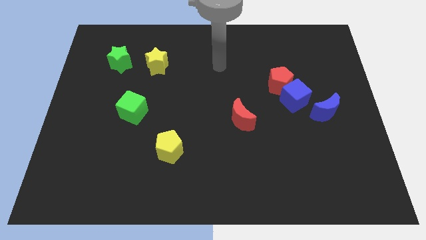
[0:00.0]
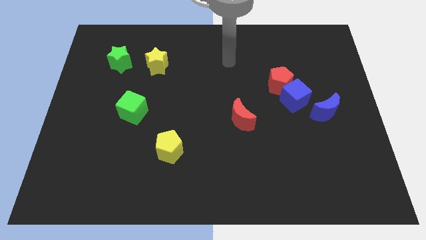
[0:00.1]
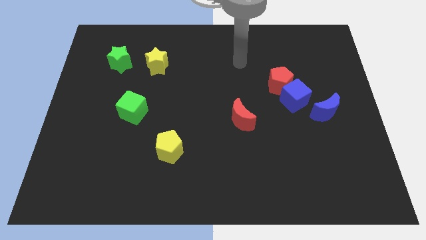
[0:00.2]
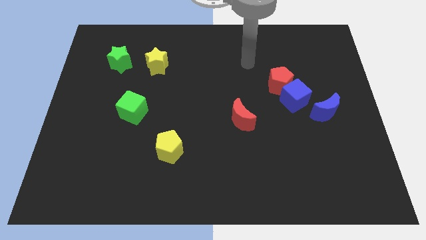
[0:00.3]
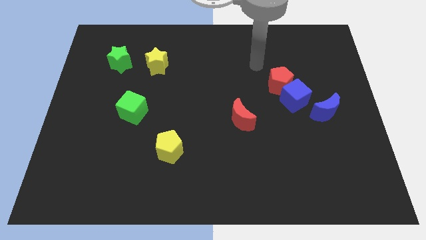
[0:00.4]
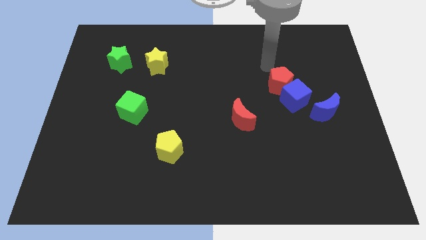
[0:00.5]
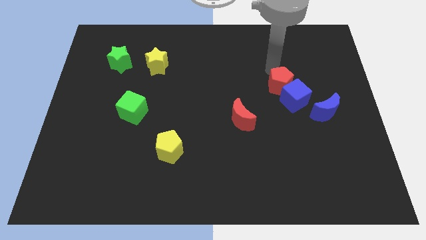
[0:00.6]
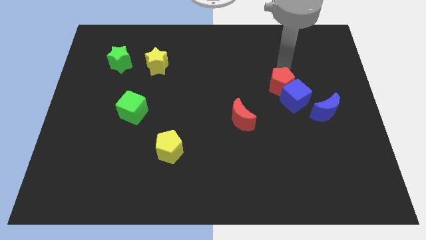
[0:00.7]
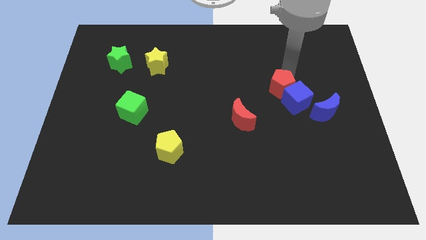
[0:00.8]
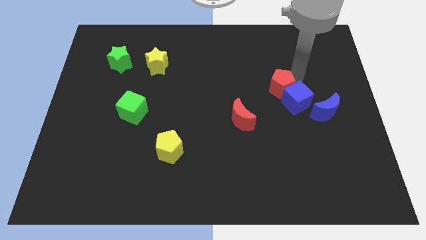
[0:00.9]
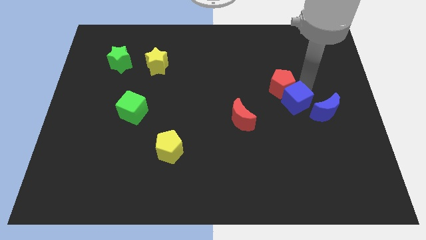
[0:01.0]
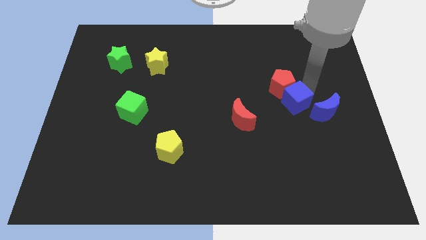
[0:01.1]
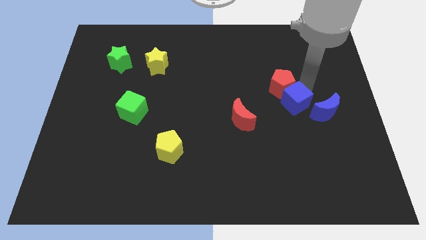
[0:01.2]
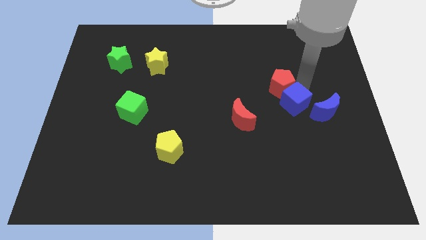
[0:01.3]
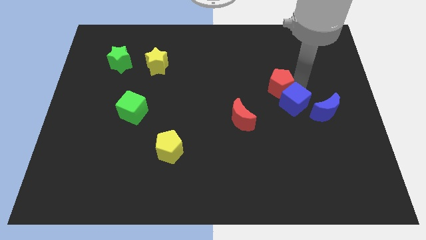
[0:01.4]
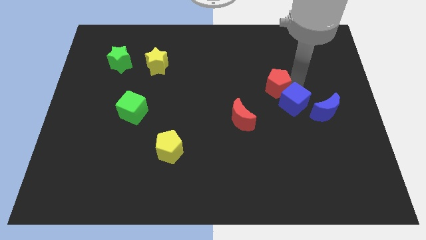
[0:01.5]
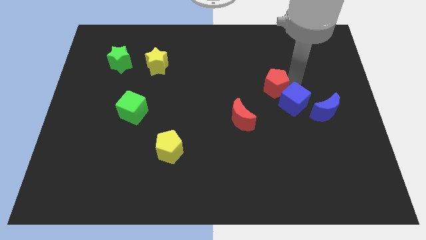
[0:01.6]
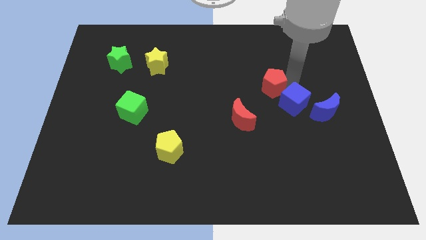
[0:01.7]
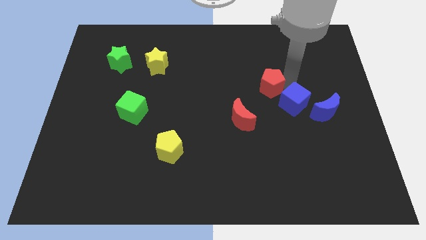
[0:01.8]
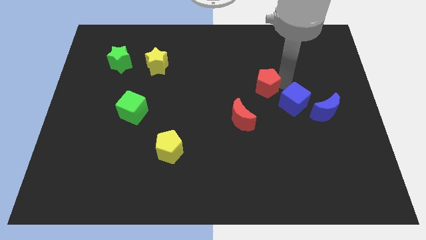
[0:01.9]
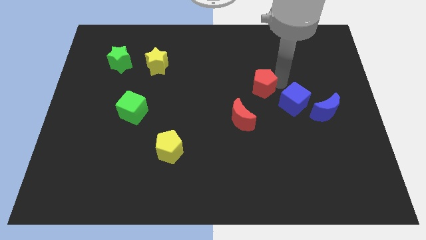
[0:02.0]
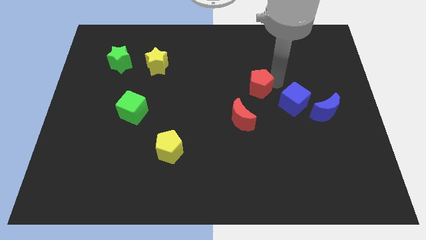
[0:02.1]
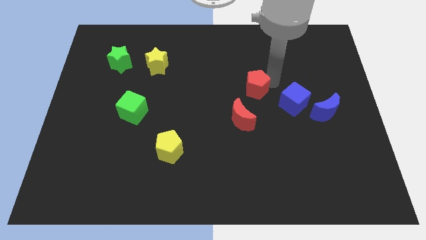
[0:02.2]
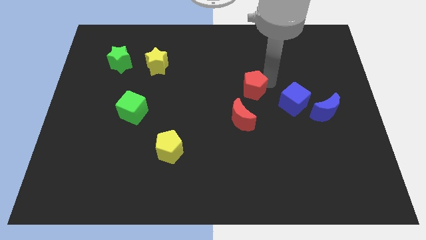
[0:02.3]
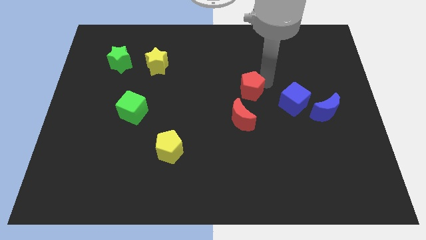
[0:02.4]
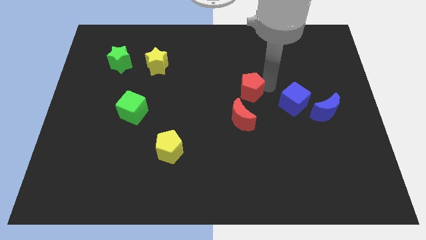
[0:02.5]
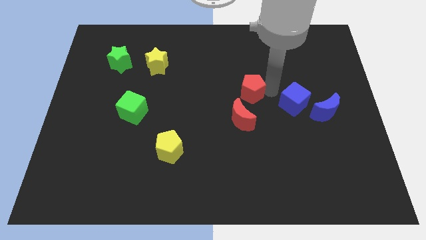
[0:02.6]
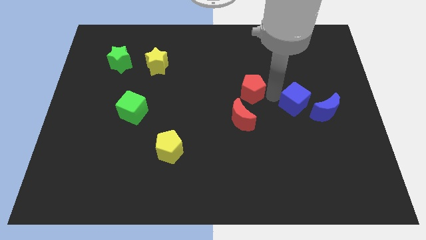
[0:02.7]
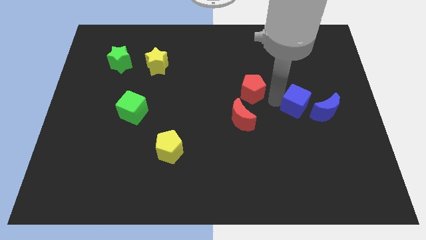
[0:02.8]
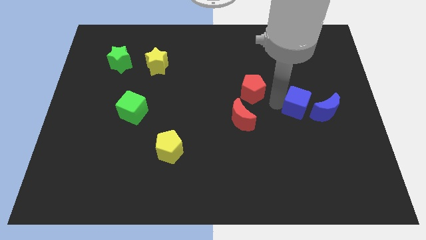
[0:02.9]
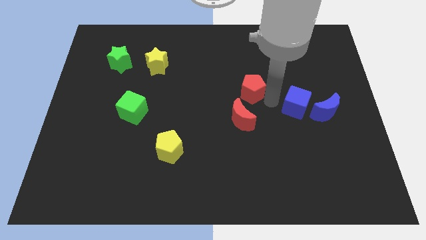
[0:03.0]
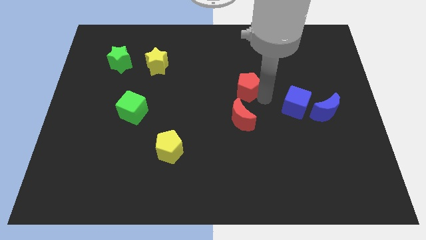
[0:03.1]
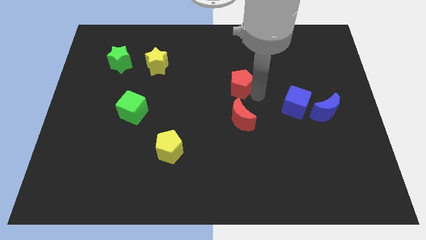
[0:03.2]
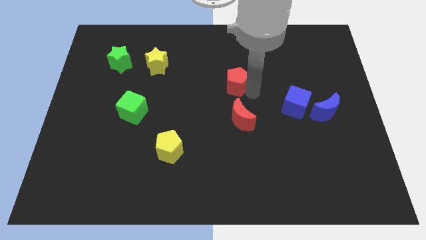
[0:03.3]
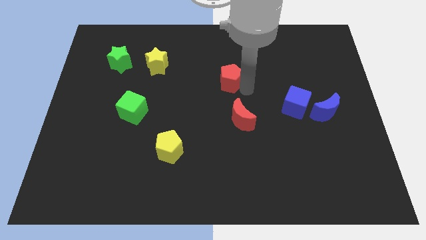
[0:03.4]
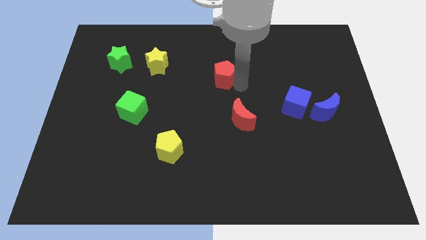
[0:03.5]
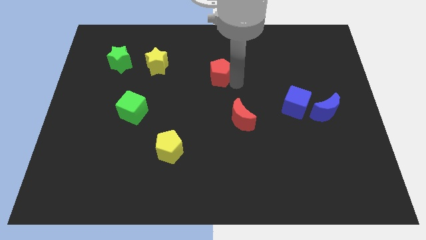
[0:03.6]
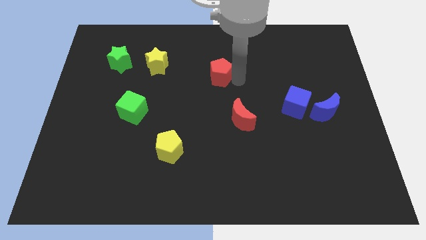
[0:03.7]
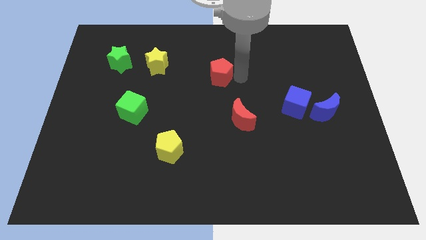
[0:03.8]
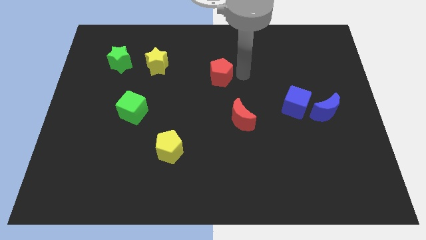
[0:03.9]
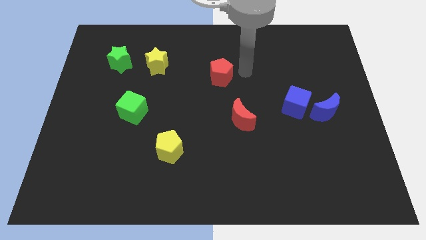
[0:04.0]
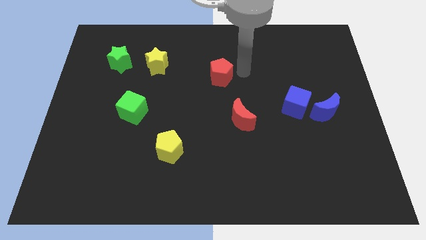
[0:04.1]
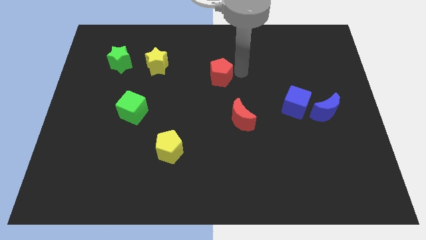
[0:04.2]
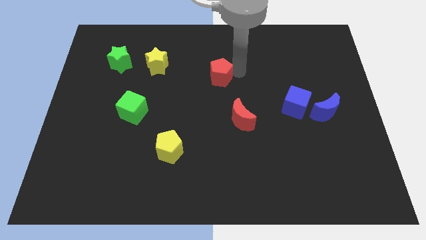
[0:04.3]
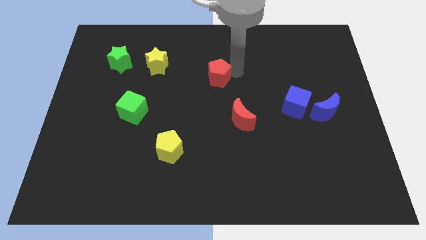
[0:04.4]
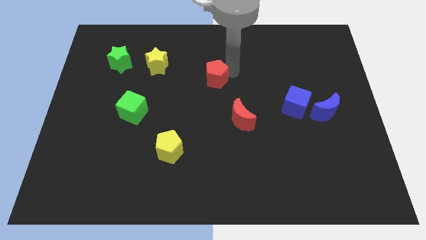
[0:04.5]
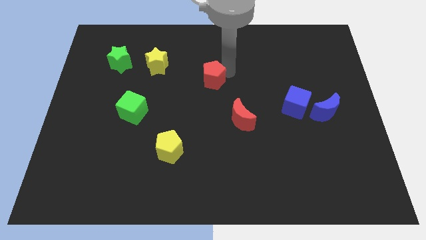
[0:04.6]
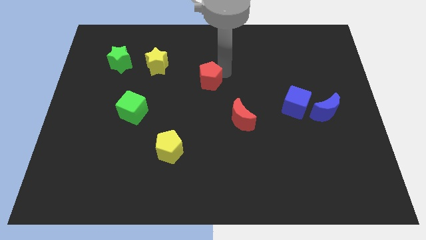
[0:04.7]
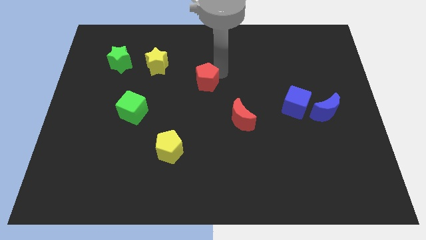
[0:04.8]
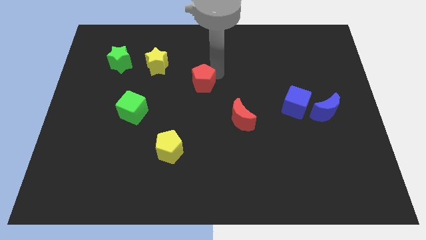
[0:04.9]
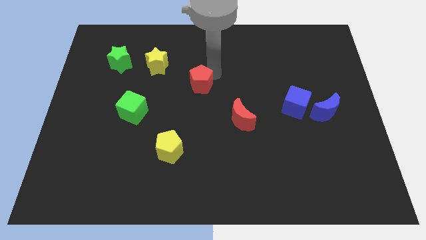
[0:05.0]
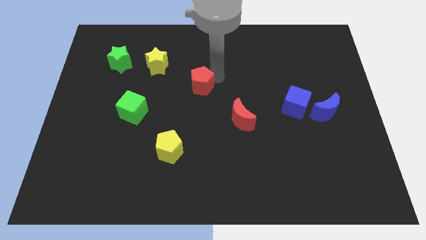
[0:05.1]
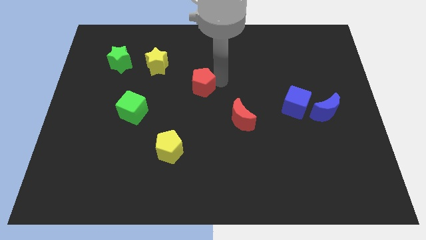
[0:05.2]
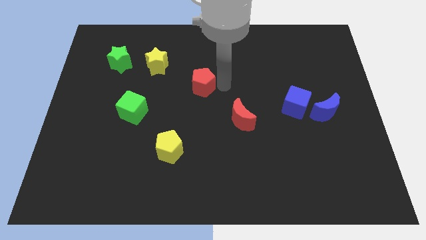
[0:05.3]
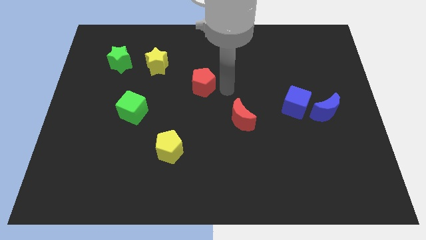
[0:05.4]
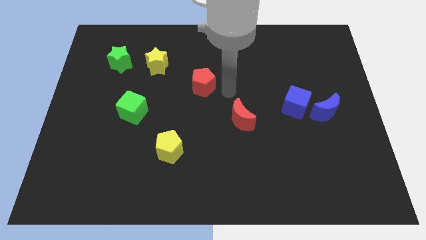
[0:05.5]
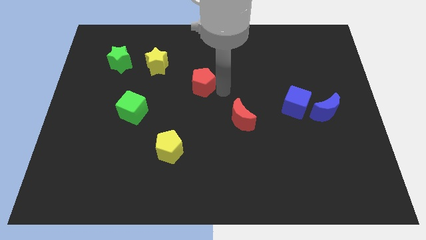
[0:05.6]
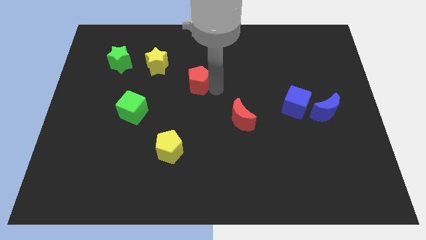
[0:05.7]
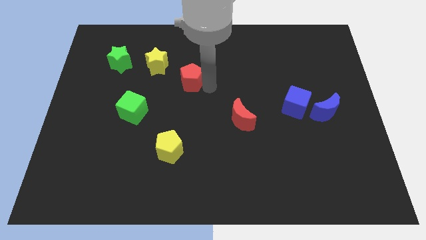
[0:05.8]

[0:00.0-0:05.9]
put the red pentagon diagonally down and to the right of the yellow star

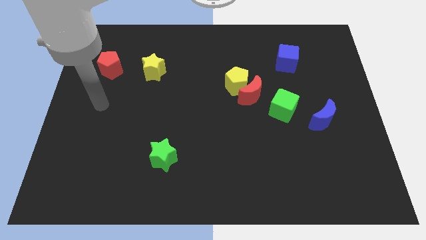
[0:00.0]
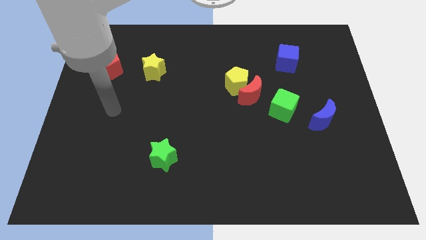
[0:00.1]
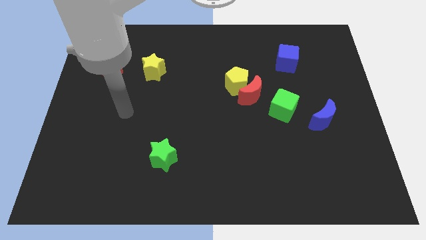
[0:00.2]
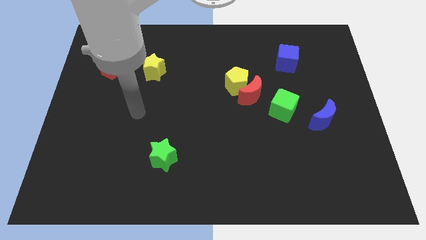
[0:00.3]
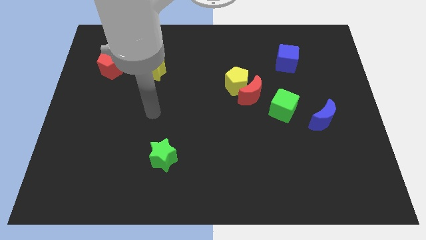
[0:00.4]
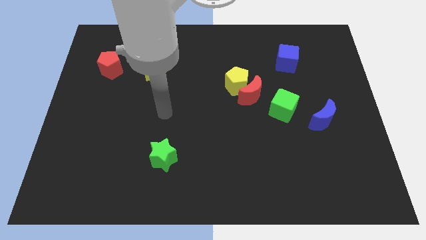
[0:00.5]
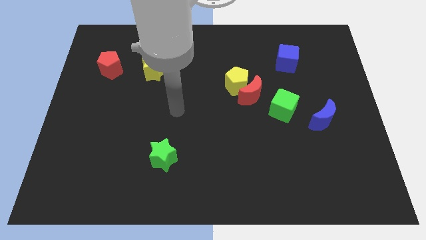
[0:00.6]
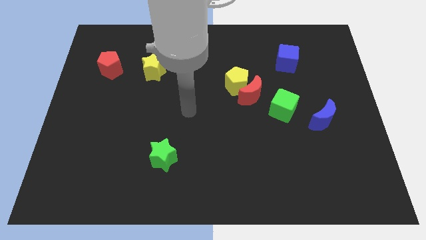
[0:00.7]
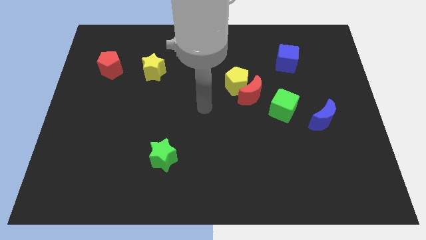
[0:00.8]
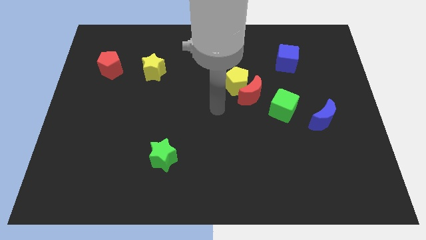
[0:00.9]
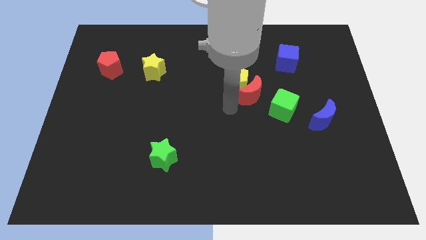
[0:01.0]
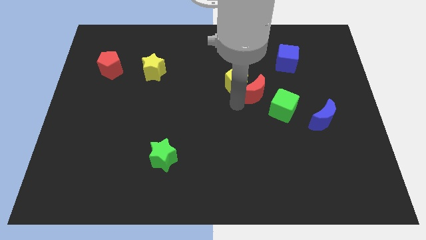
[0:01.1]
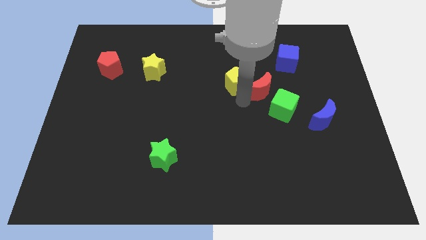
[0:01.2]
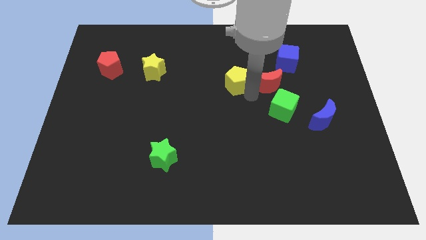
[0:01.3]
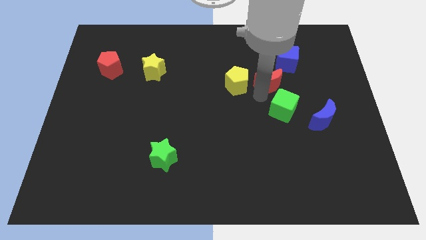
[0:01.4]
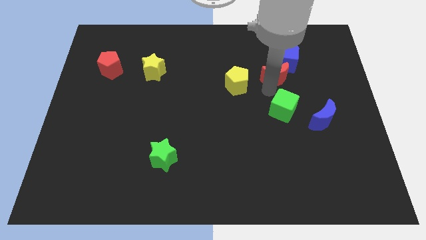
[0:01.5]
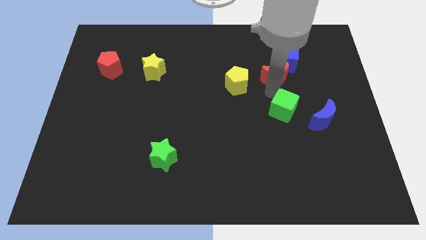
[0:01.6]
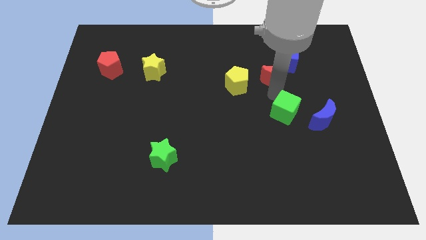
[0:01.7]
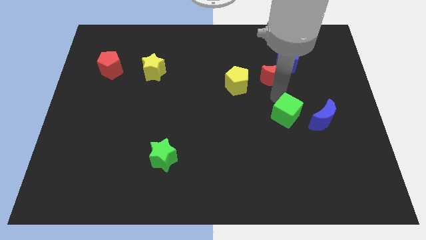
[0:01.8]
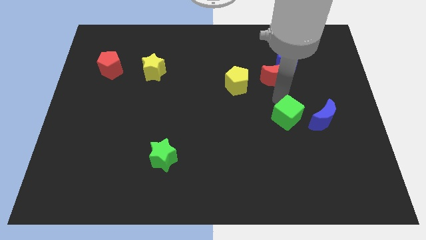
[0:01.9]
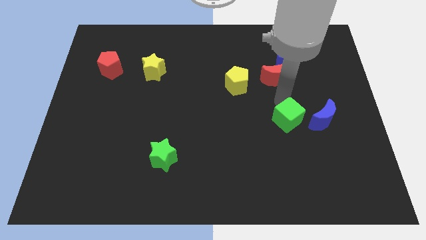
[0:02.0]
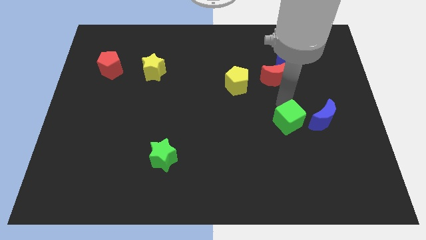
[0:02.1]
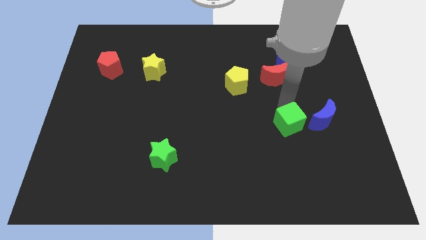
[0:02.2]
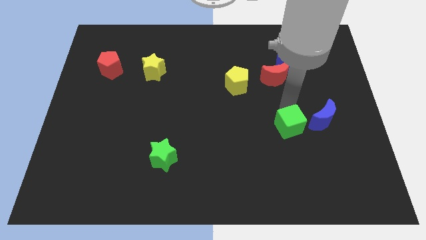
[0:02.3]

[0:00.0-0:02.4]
slide the green cube to the bottom left side of the blue moon

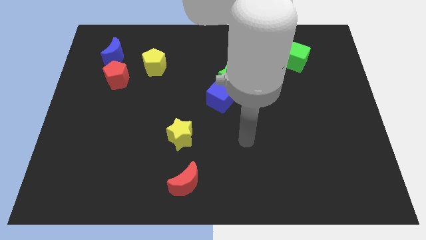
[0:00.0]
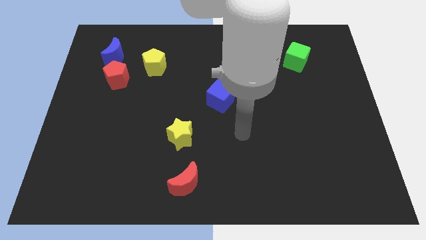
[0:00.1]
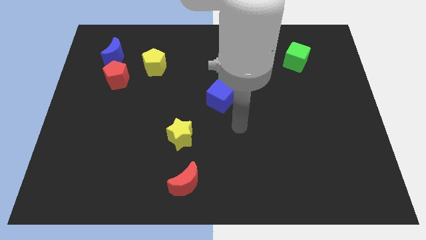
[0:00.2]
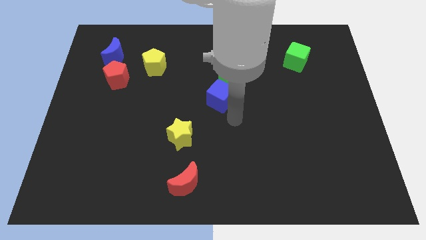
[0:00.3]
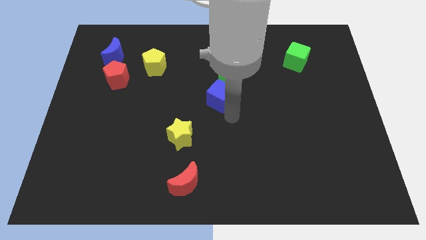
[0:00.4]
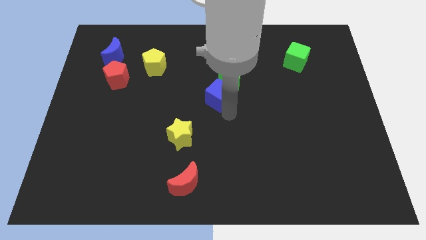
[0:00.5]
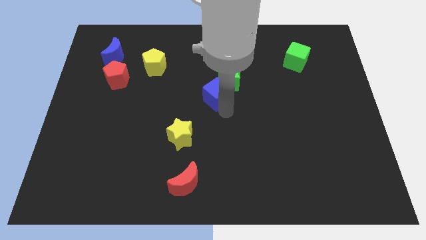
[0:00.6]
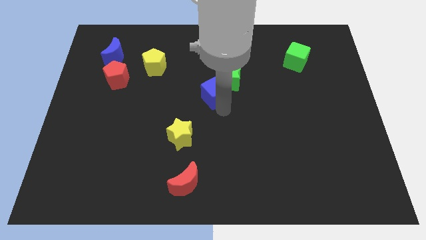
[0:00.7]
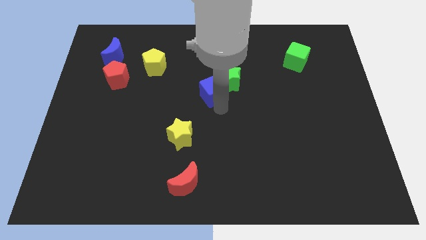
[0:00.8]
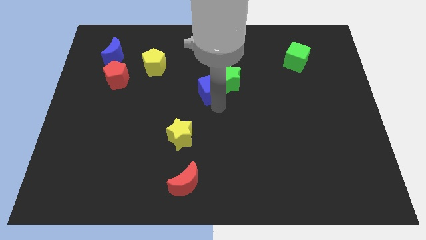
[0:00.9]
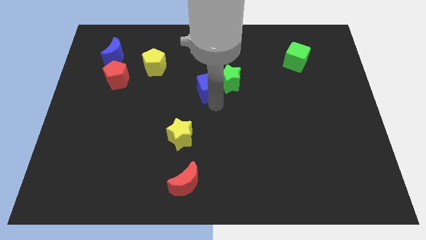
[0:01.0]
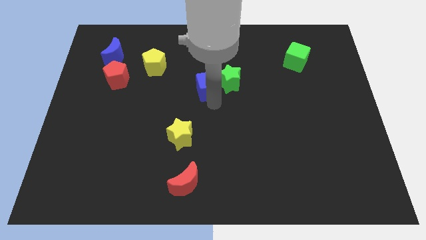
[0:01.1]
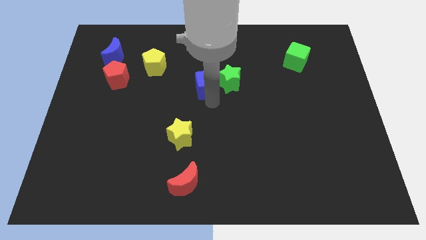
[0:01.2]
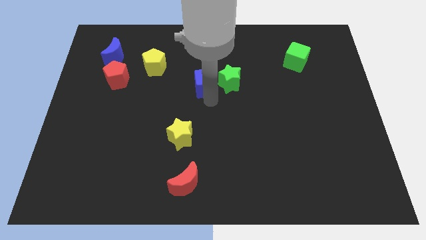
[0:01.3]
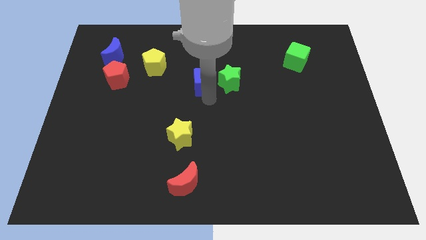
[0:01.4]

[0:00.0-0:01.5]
move the blue cube diagonally up and to the left of the green star
